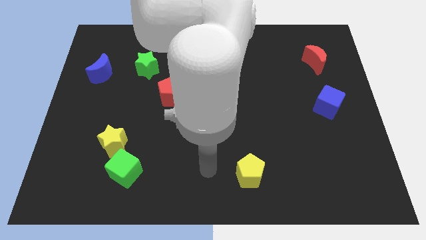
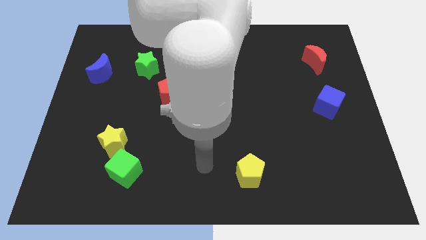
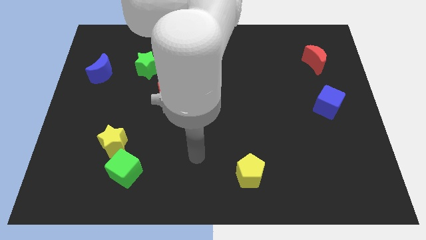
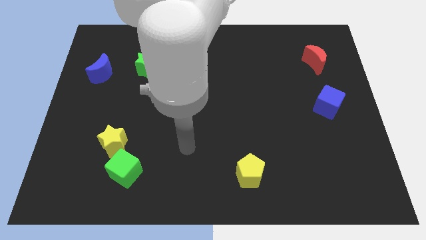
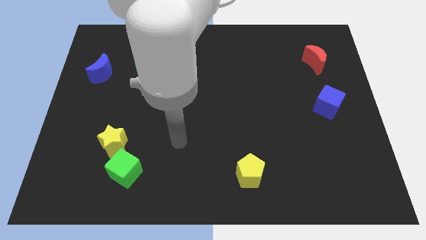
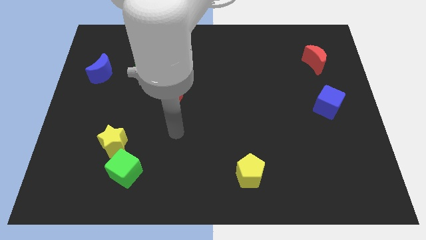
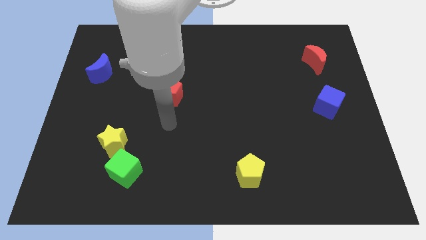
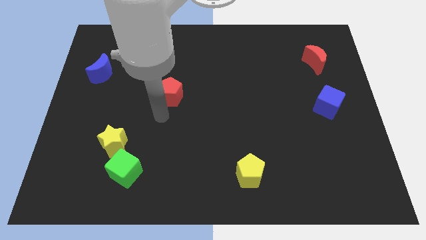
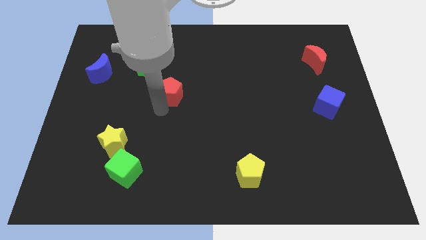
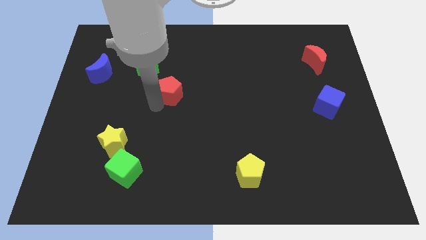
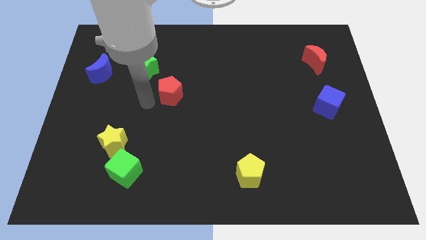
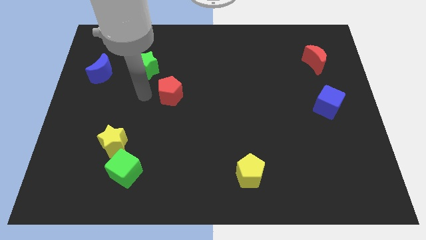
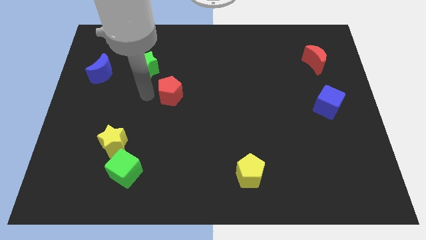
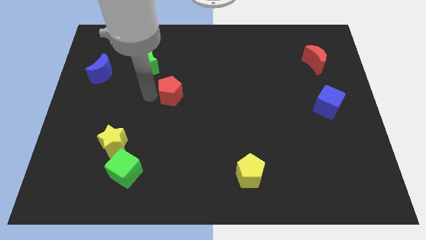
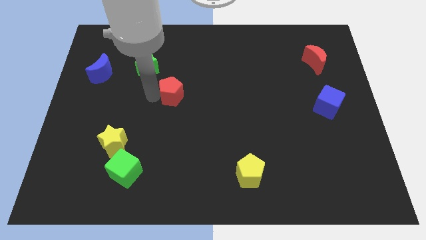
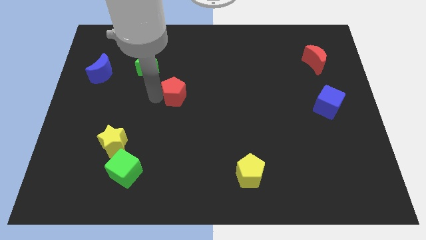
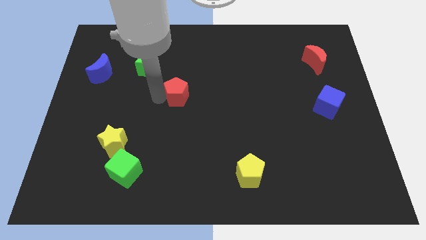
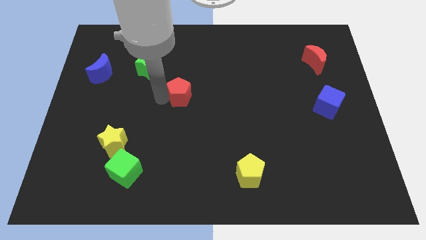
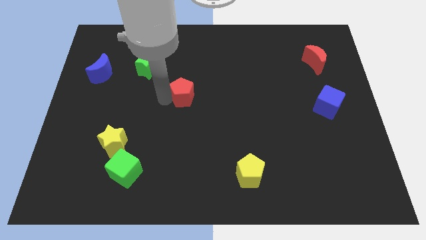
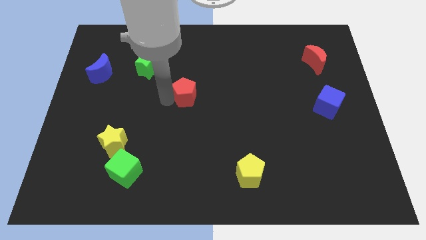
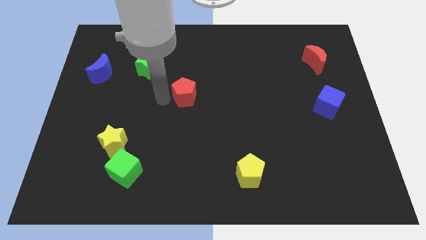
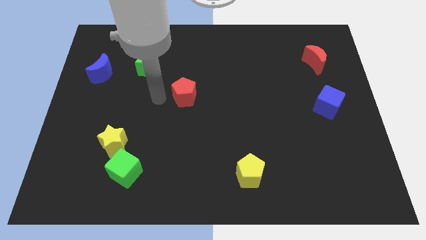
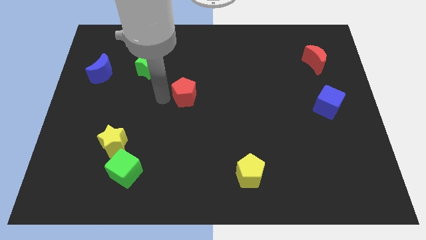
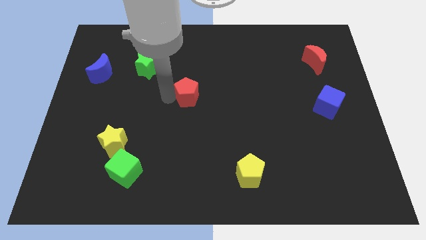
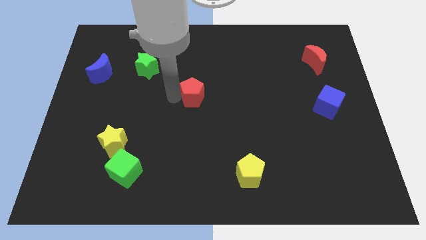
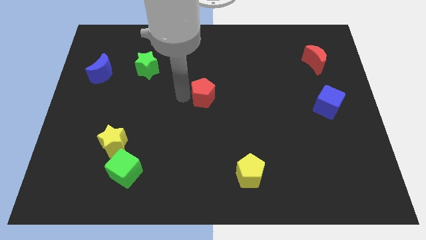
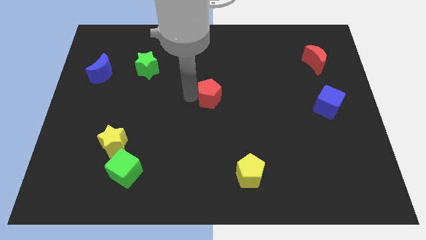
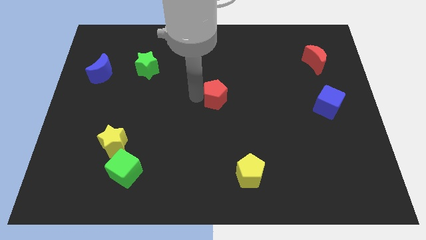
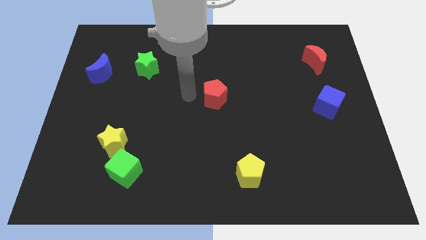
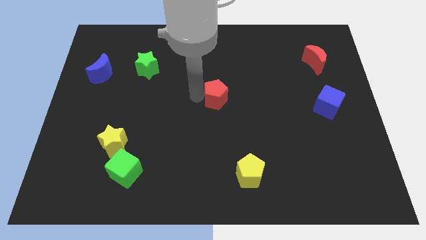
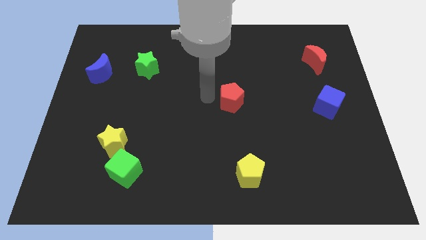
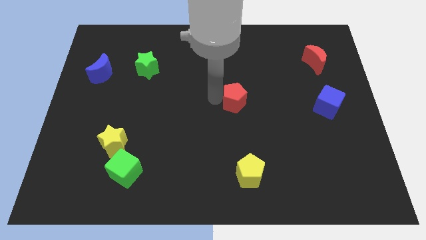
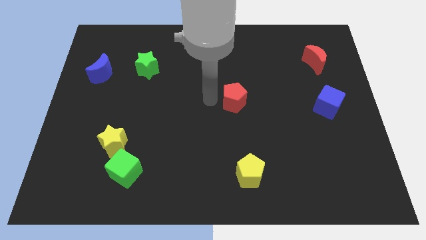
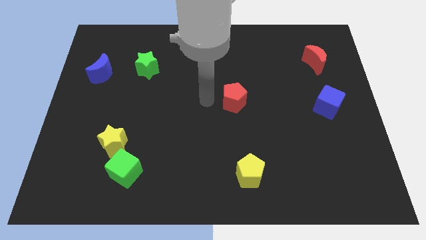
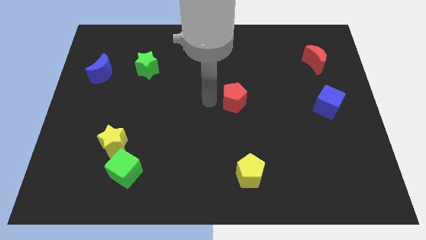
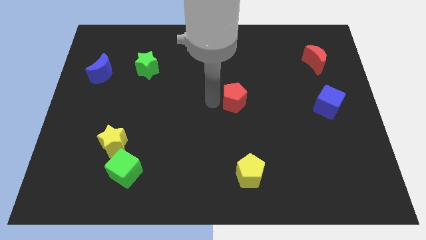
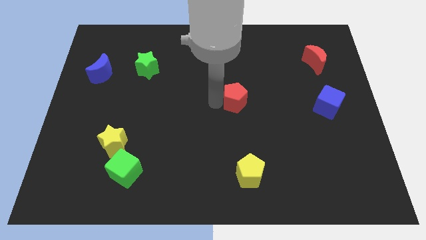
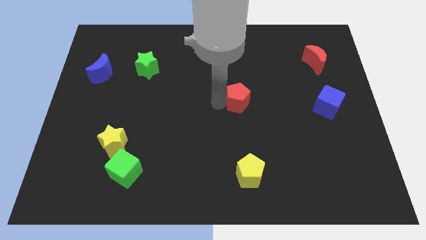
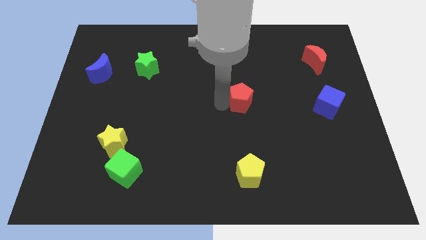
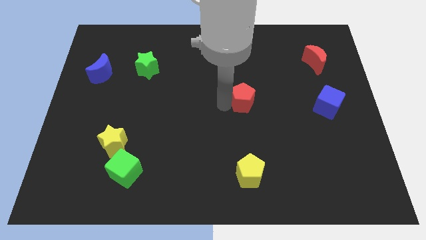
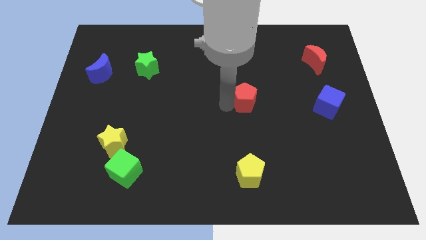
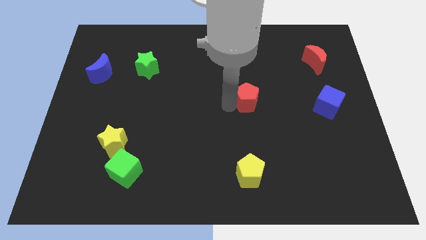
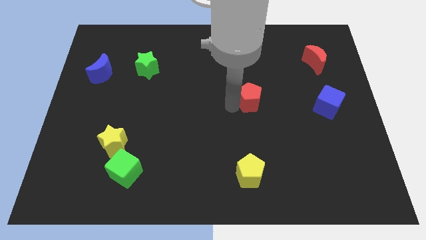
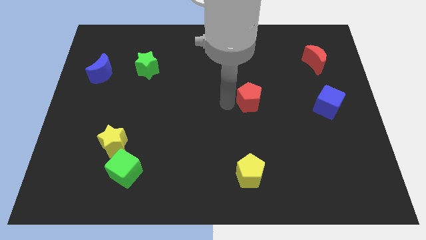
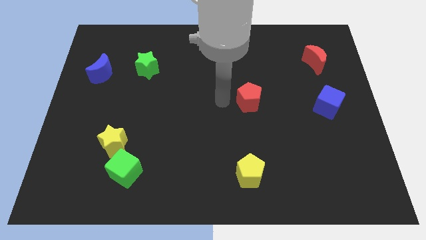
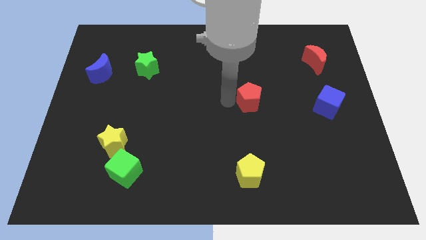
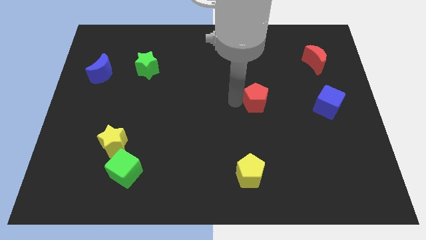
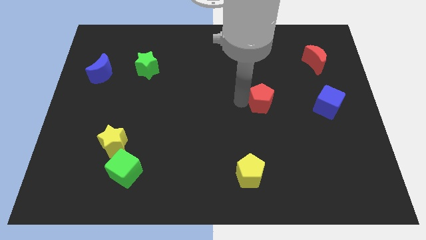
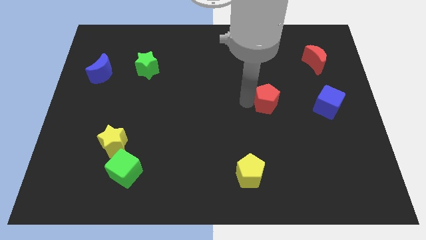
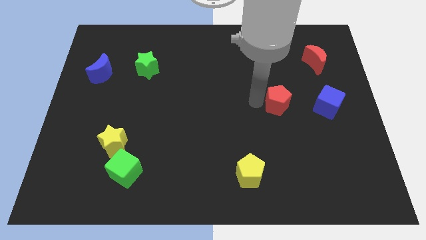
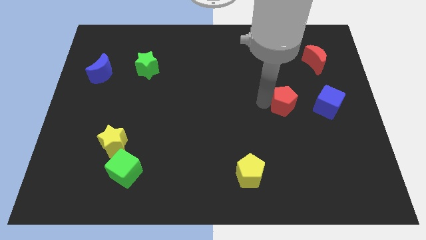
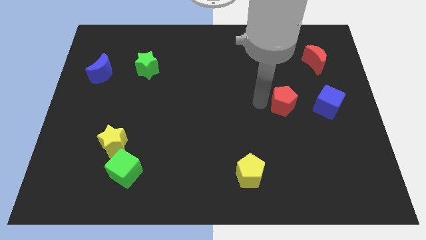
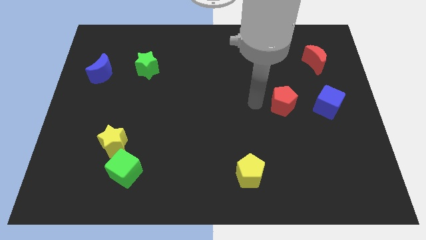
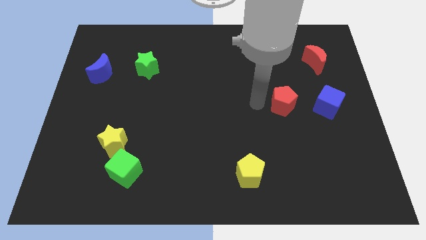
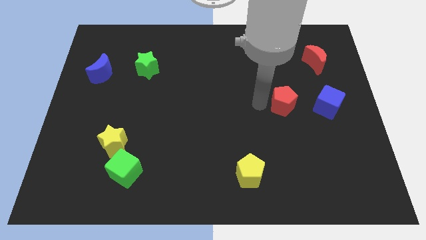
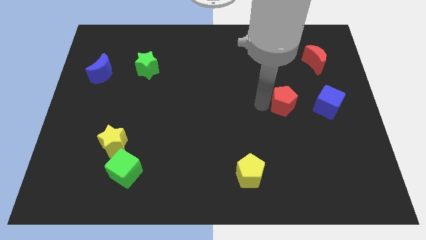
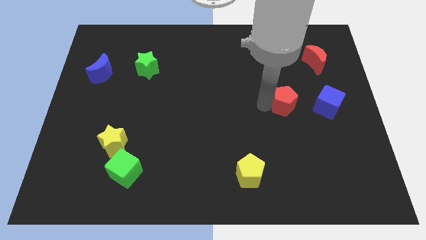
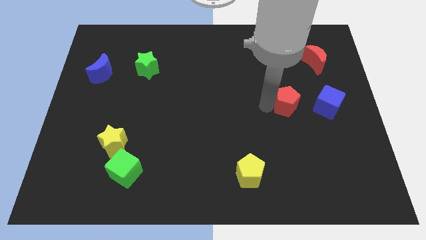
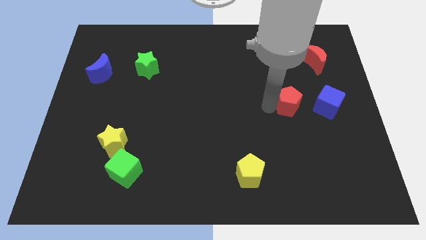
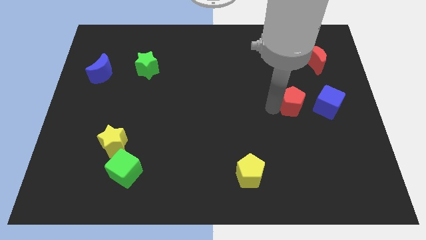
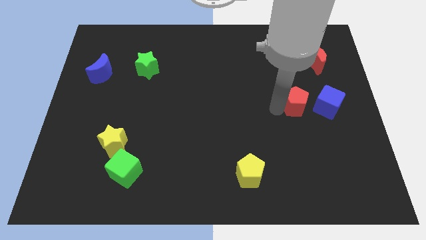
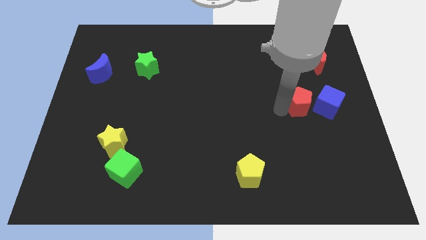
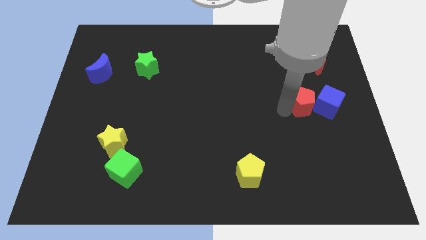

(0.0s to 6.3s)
slide the red pentagon next to the blue cube
